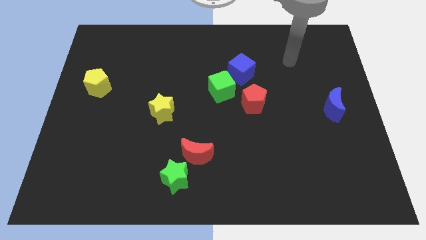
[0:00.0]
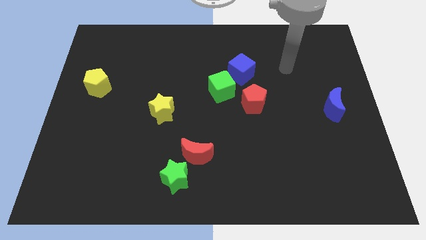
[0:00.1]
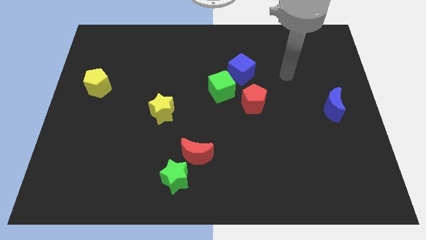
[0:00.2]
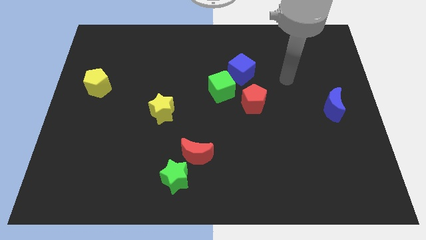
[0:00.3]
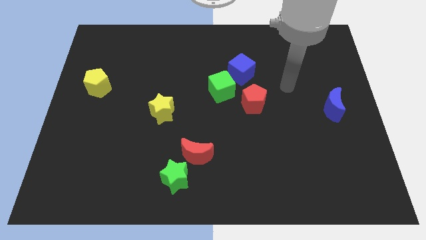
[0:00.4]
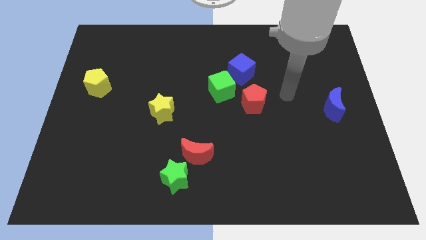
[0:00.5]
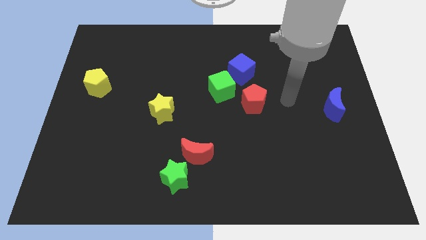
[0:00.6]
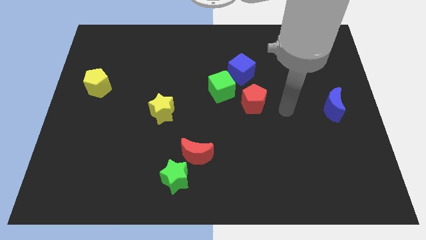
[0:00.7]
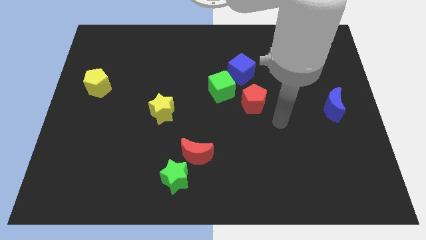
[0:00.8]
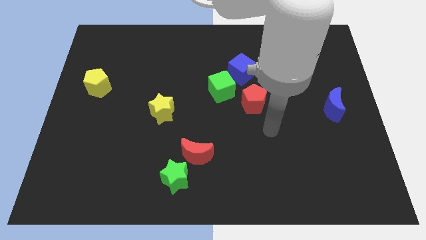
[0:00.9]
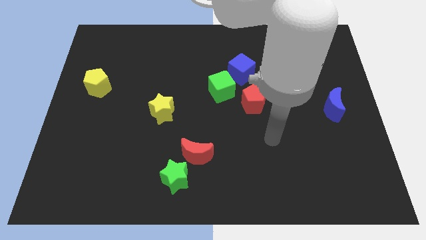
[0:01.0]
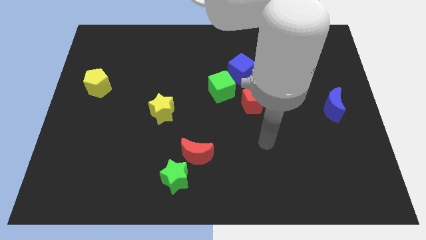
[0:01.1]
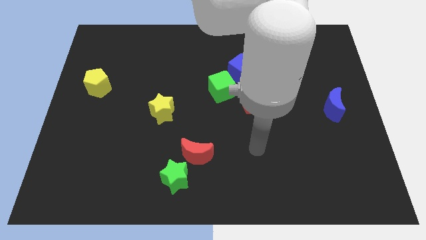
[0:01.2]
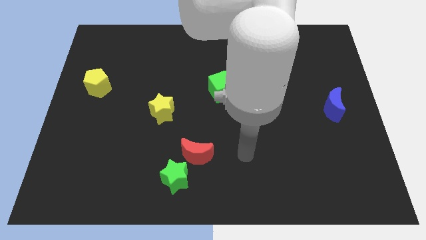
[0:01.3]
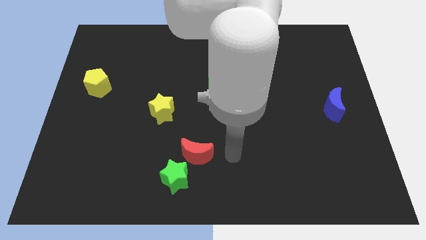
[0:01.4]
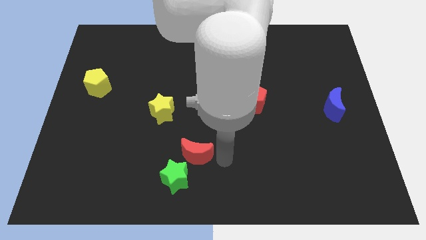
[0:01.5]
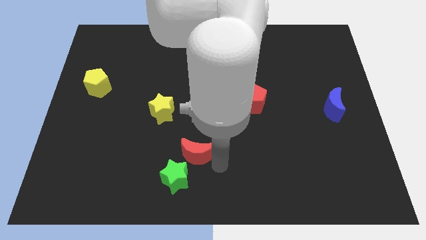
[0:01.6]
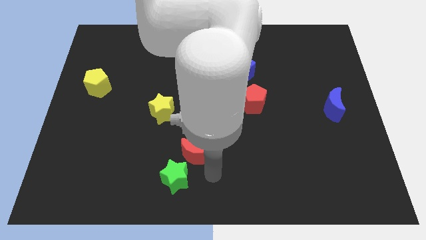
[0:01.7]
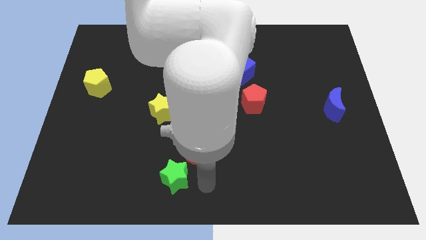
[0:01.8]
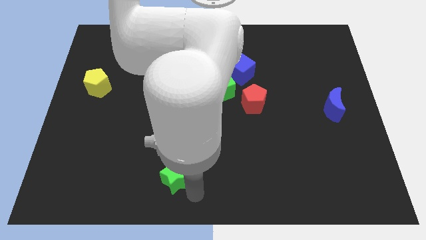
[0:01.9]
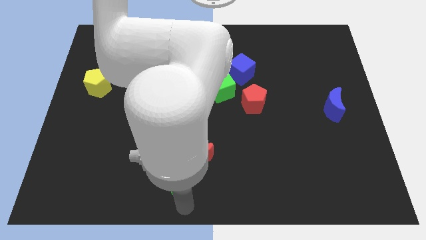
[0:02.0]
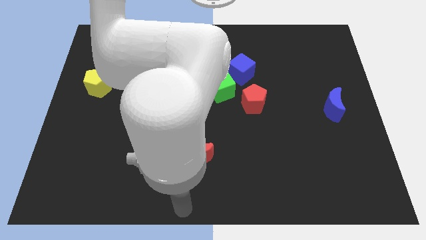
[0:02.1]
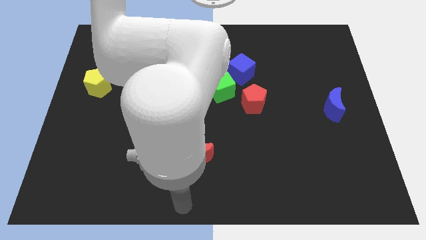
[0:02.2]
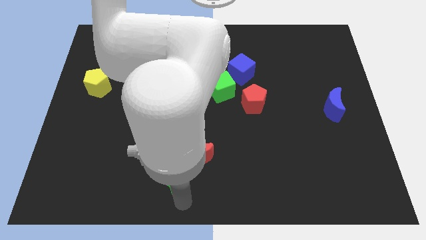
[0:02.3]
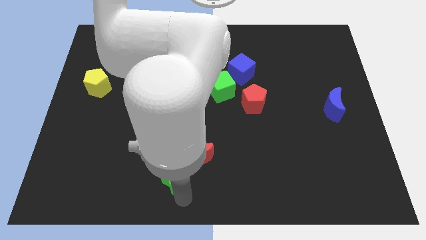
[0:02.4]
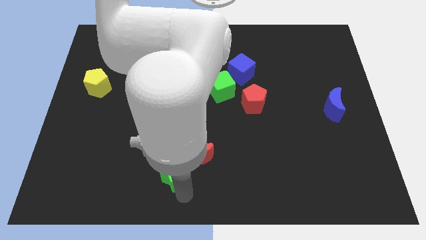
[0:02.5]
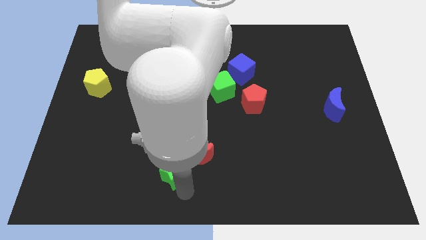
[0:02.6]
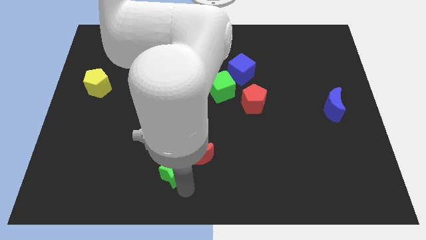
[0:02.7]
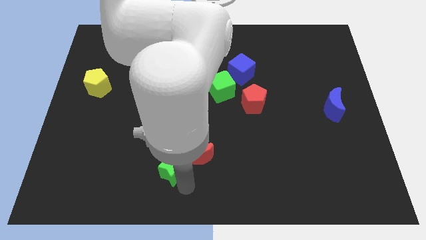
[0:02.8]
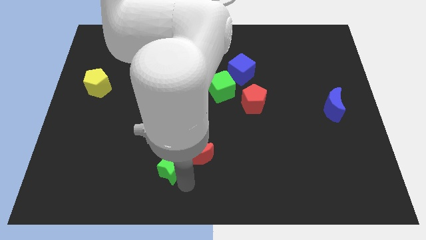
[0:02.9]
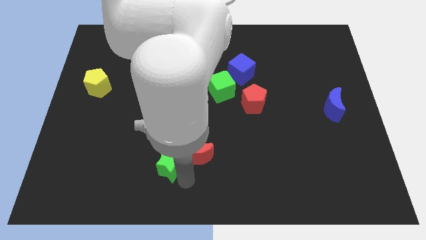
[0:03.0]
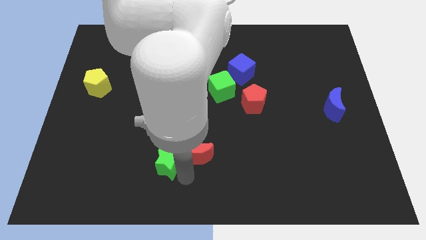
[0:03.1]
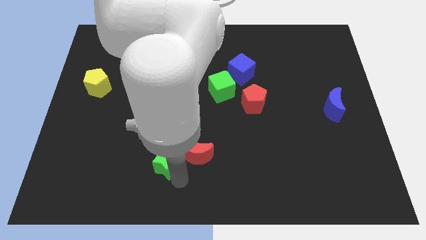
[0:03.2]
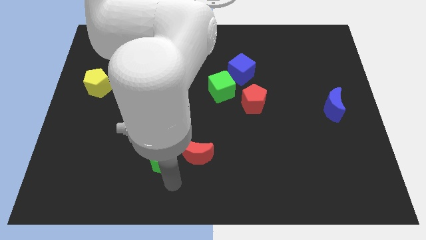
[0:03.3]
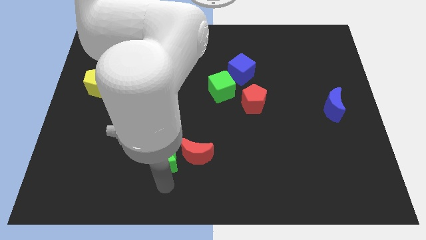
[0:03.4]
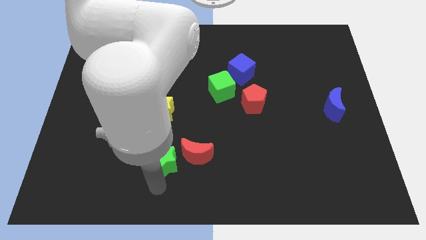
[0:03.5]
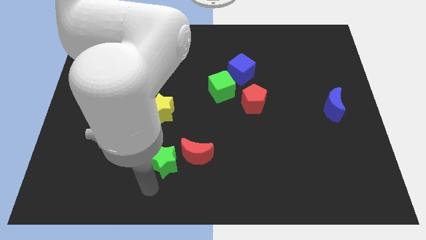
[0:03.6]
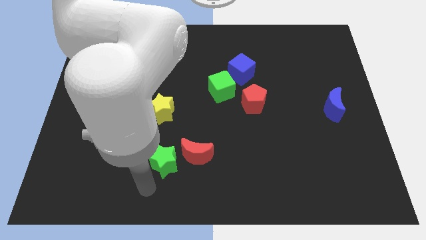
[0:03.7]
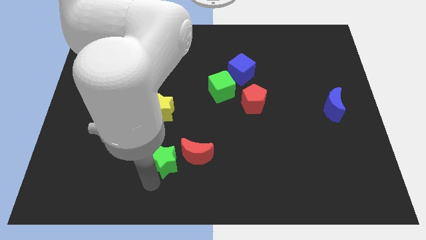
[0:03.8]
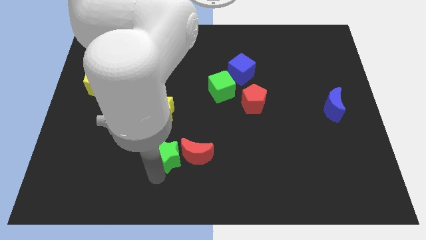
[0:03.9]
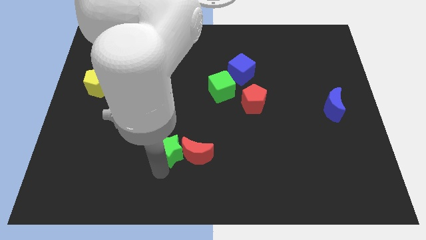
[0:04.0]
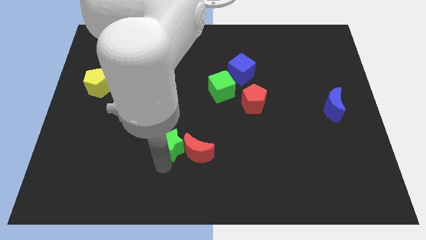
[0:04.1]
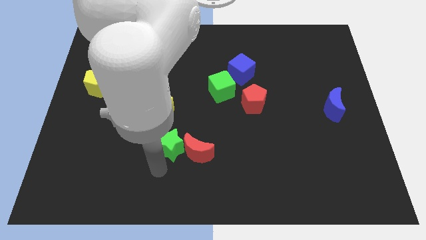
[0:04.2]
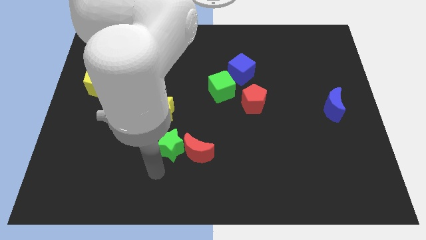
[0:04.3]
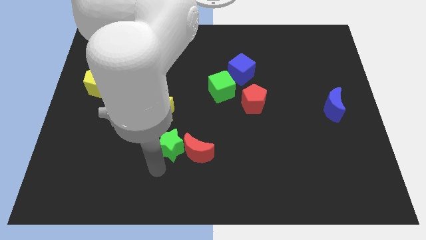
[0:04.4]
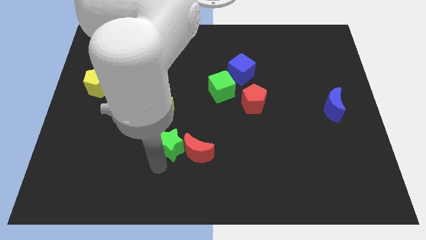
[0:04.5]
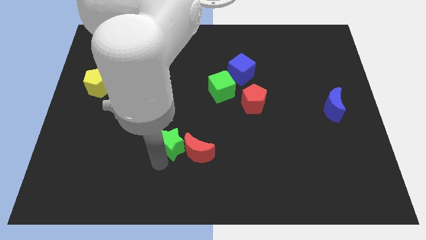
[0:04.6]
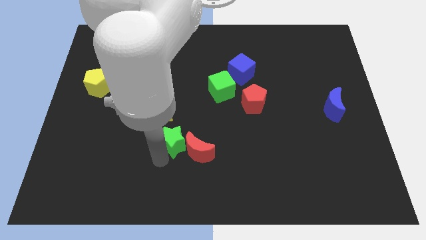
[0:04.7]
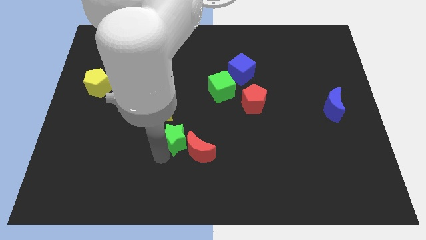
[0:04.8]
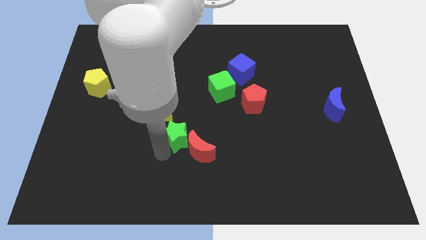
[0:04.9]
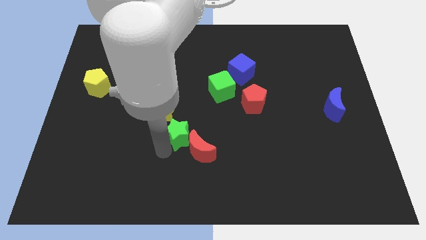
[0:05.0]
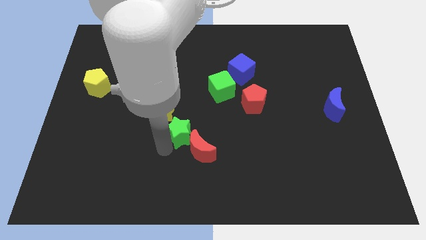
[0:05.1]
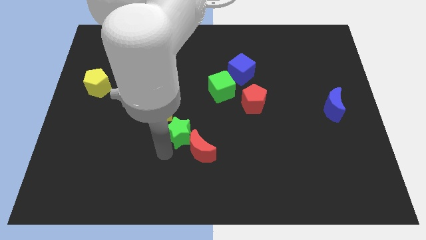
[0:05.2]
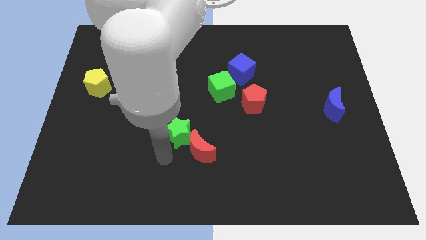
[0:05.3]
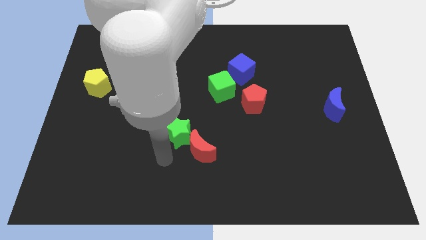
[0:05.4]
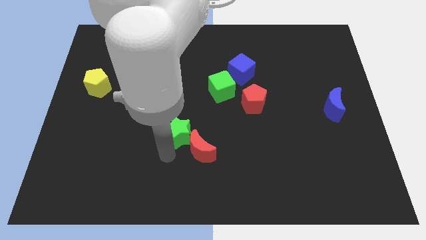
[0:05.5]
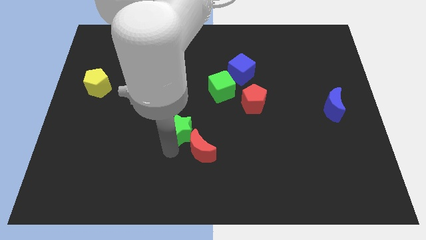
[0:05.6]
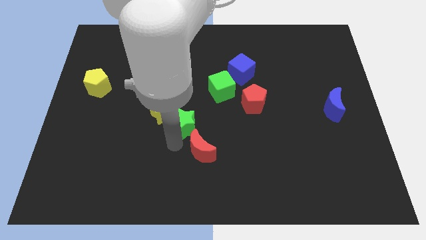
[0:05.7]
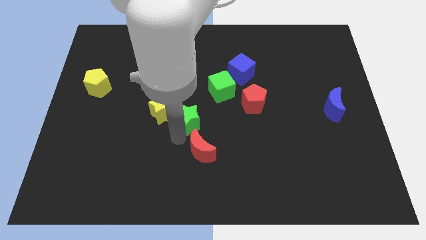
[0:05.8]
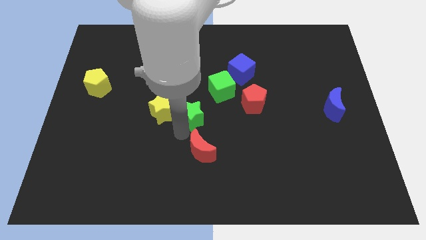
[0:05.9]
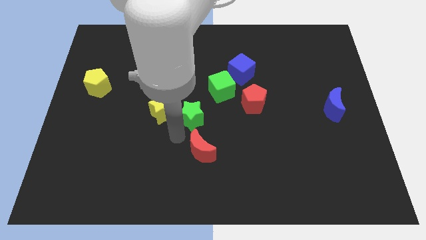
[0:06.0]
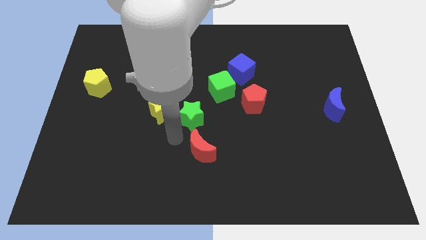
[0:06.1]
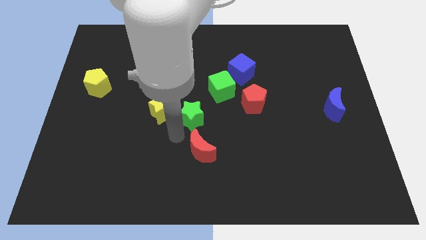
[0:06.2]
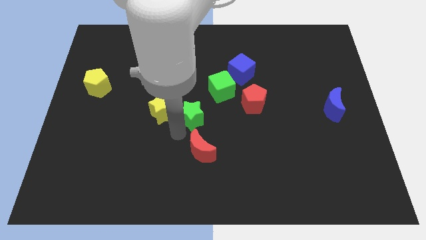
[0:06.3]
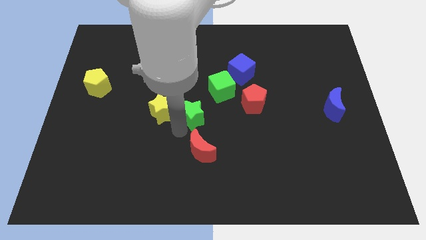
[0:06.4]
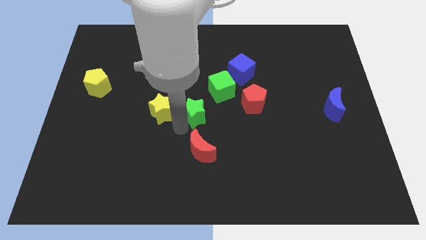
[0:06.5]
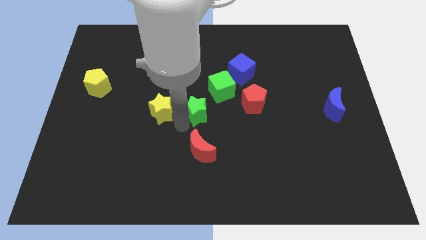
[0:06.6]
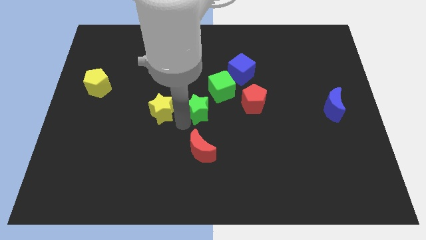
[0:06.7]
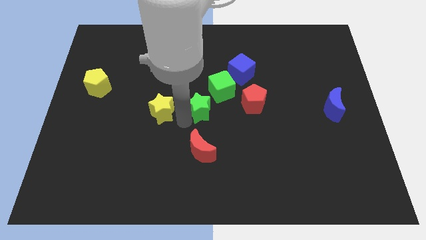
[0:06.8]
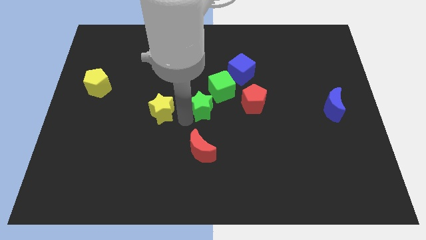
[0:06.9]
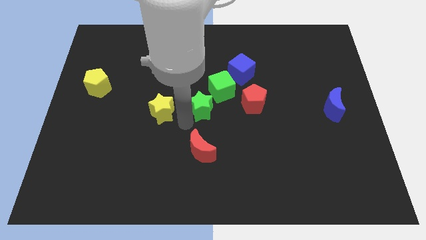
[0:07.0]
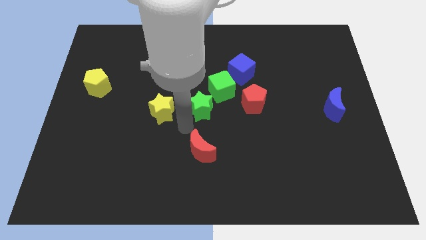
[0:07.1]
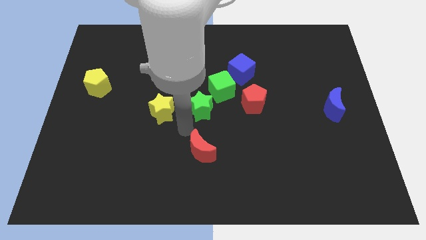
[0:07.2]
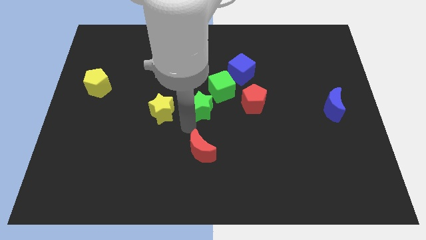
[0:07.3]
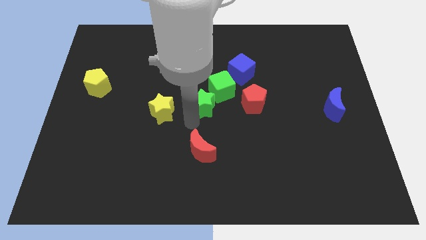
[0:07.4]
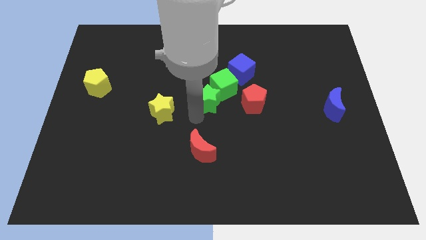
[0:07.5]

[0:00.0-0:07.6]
push the green star towards the green cube

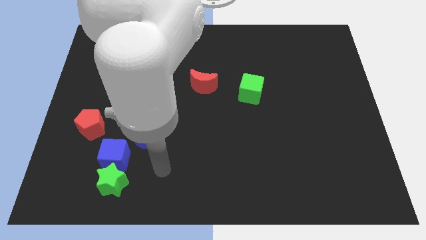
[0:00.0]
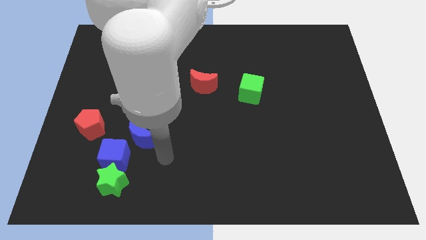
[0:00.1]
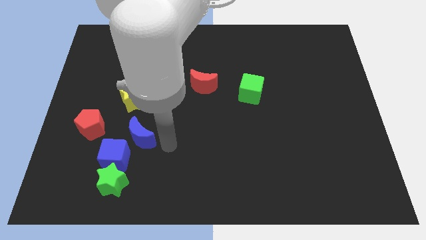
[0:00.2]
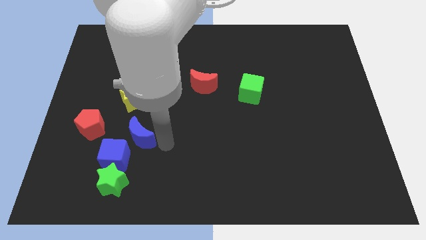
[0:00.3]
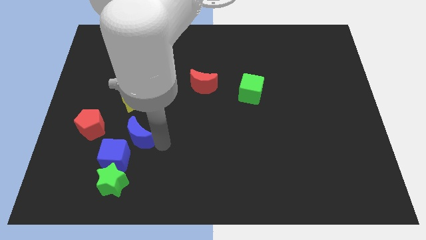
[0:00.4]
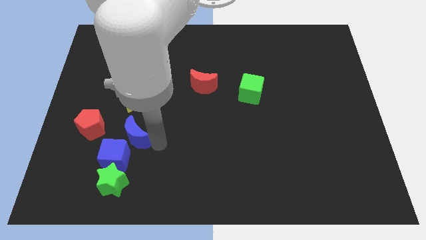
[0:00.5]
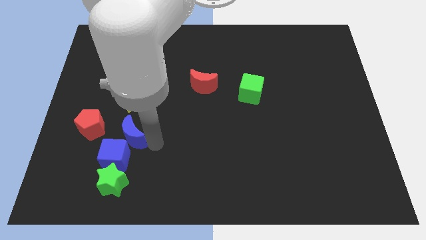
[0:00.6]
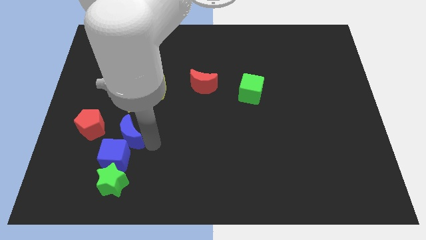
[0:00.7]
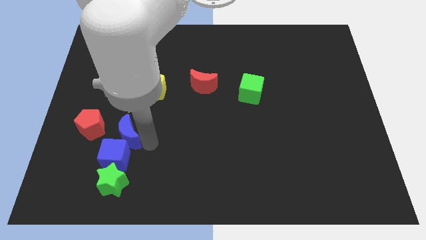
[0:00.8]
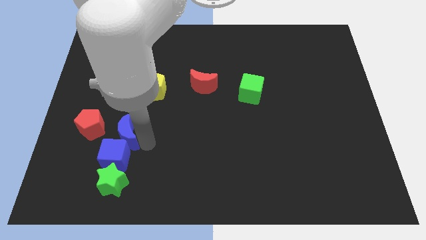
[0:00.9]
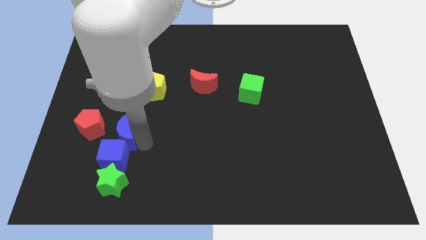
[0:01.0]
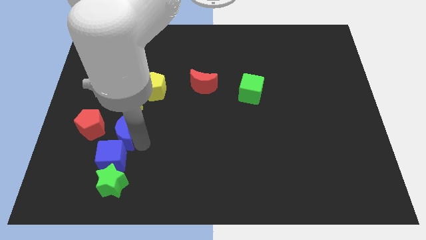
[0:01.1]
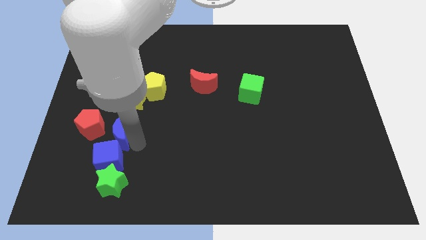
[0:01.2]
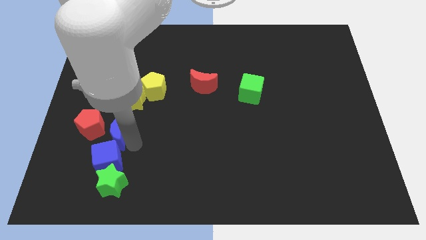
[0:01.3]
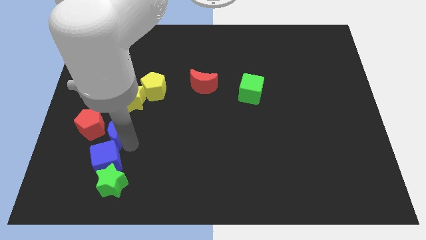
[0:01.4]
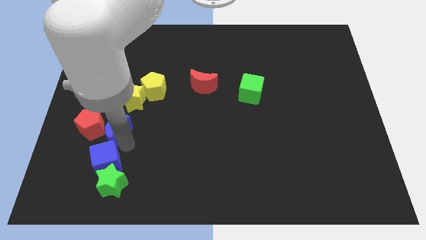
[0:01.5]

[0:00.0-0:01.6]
put the blue moon to the red pentagon
